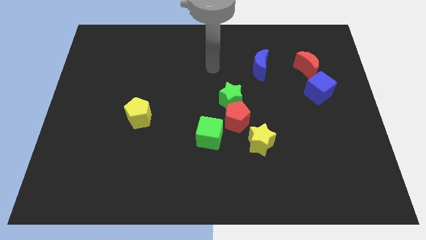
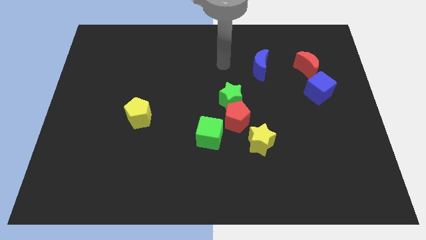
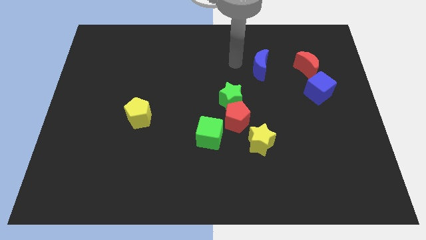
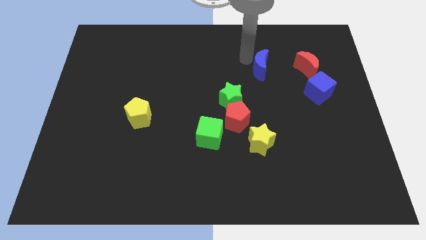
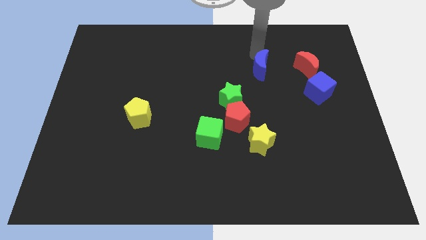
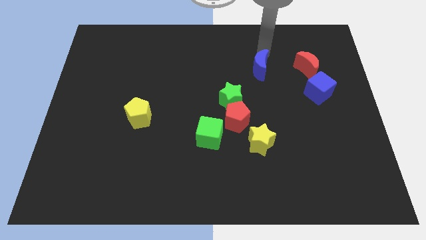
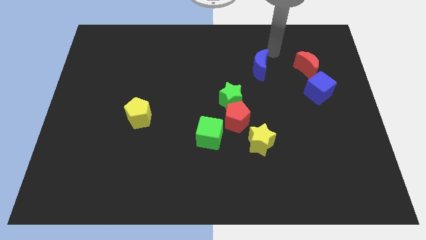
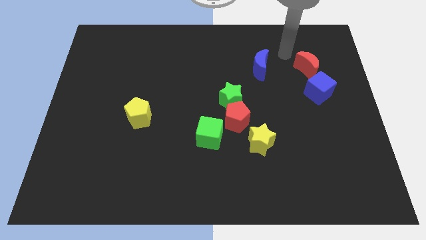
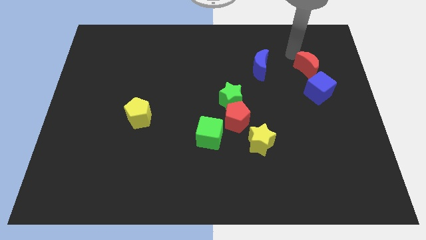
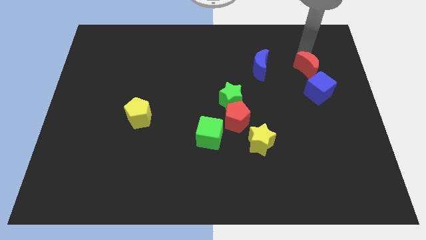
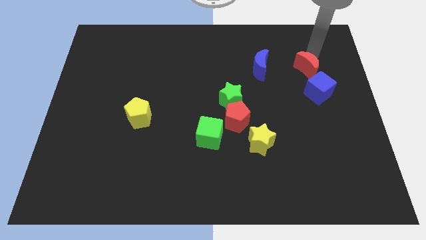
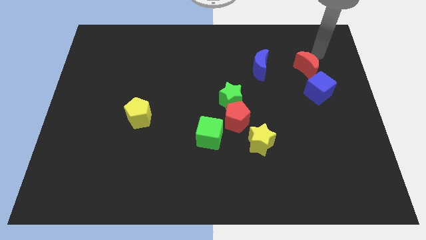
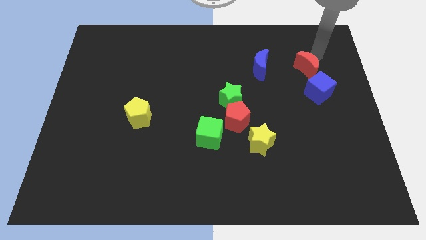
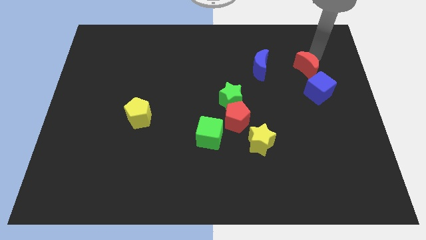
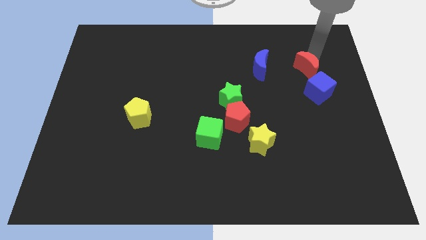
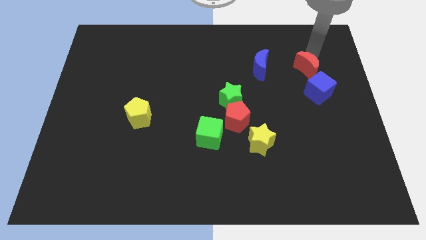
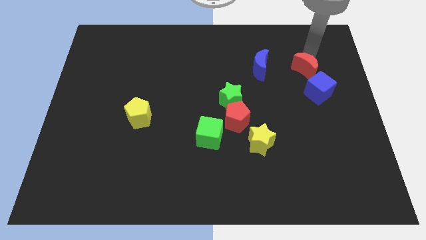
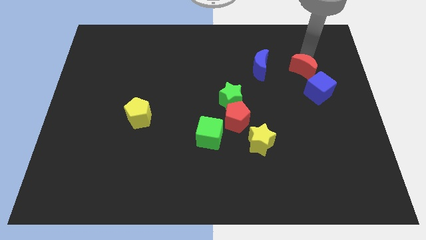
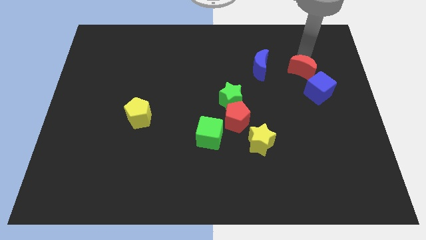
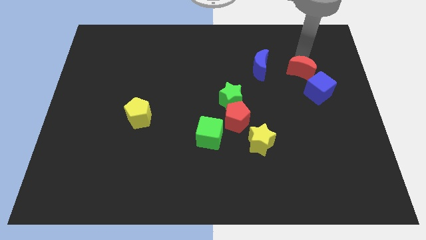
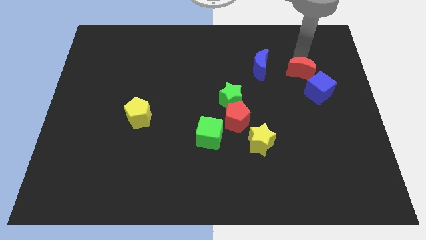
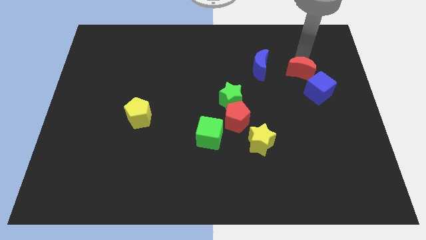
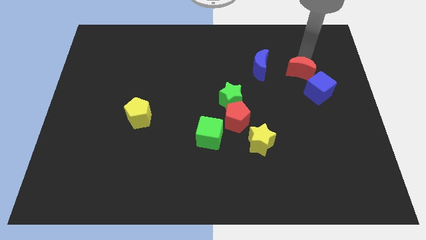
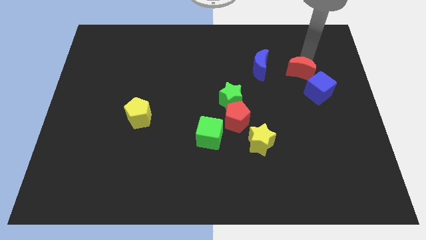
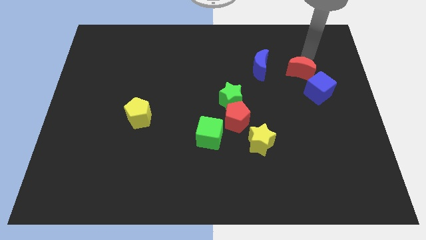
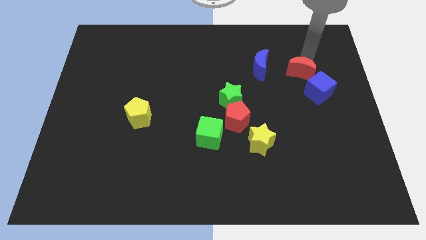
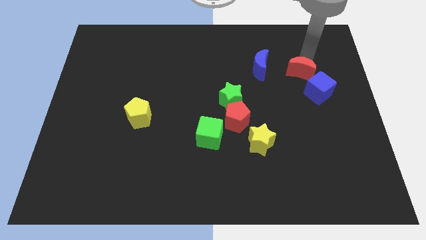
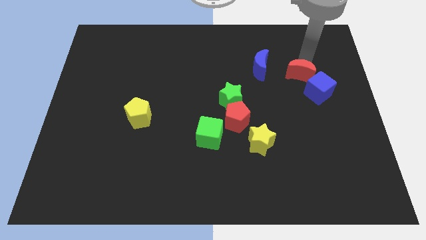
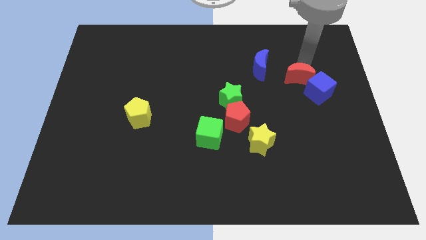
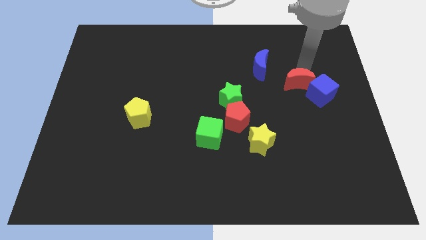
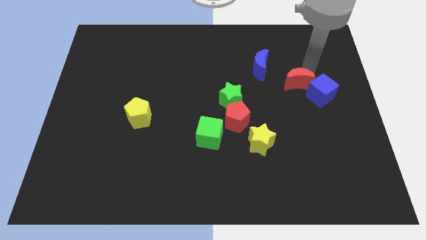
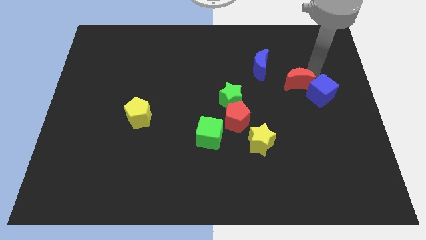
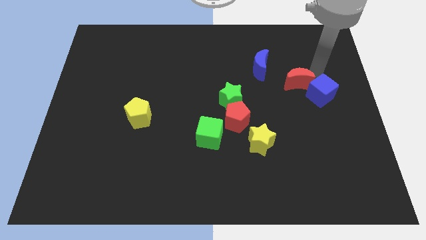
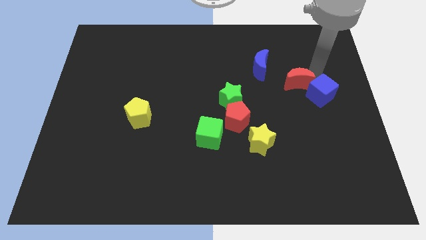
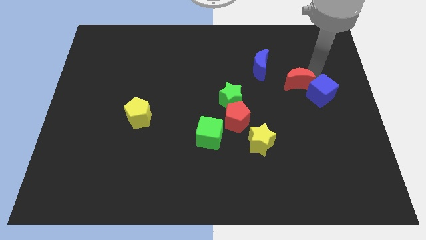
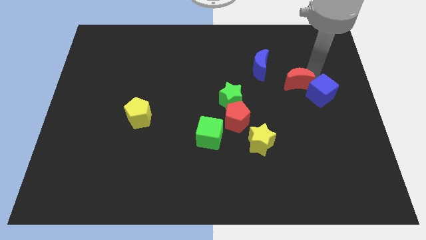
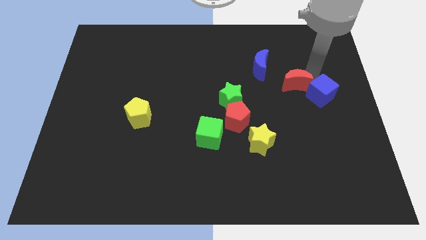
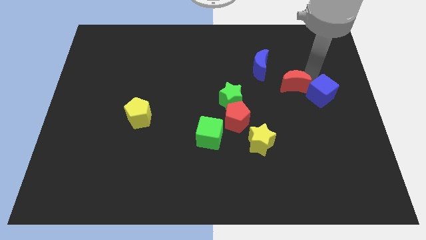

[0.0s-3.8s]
move the red moon down and to the left diagonally somewhat

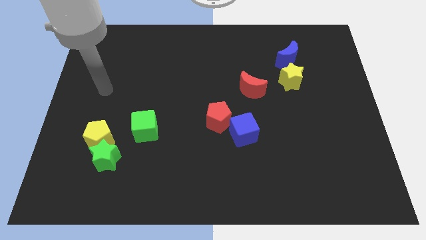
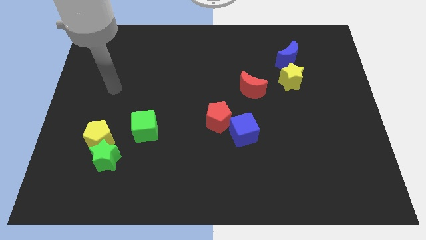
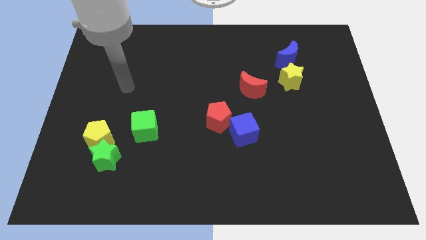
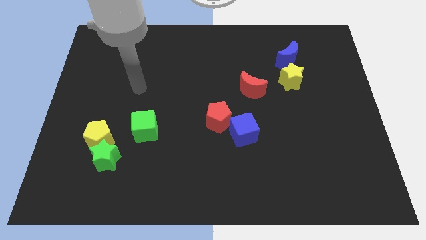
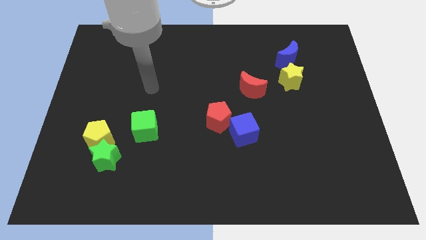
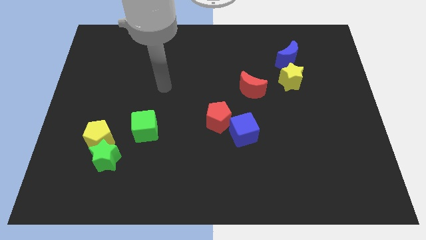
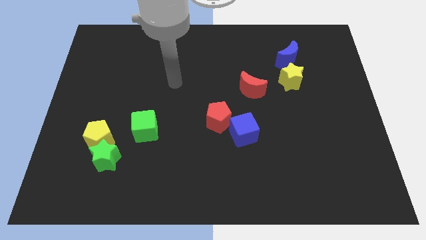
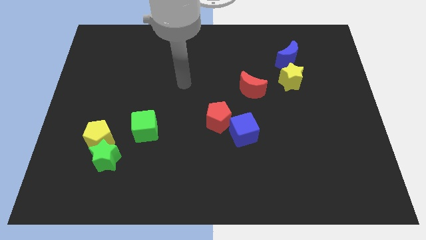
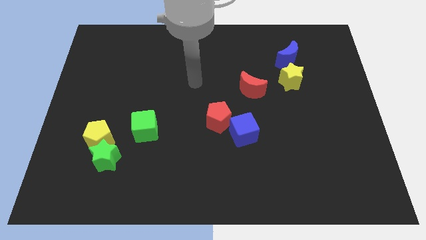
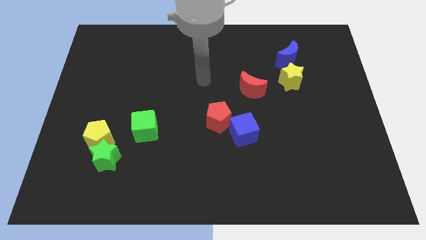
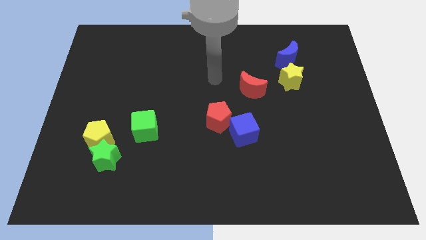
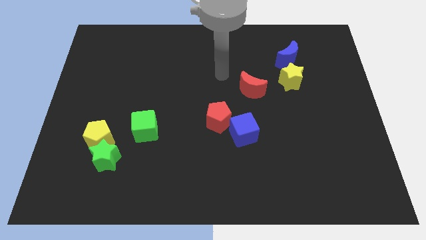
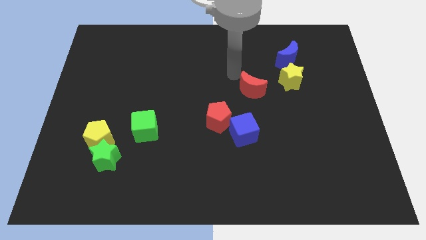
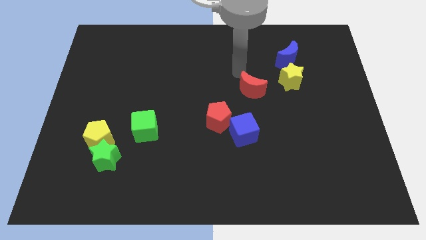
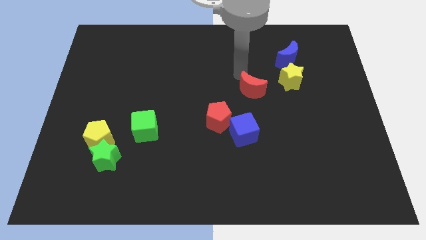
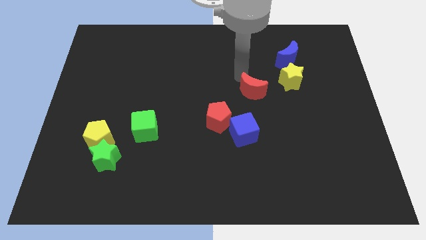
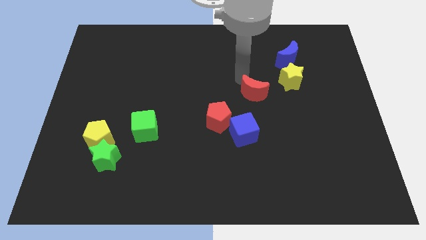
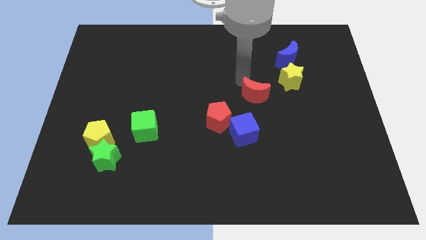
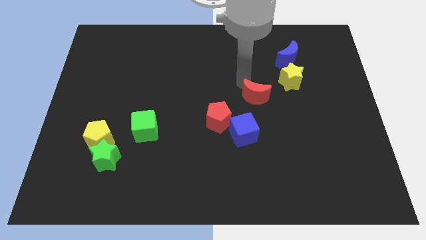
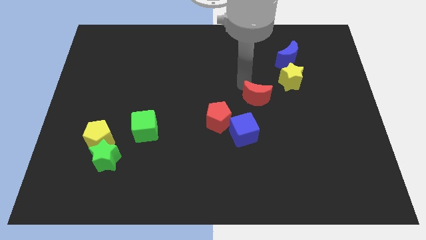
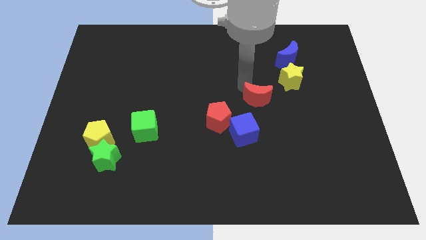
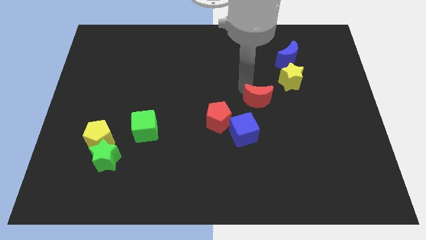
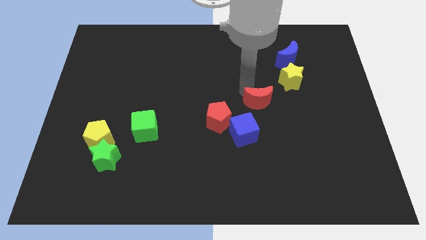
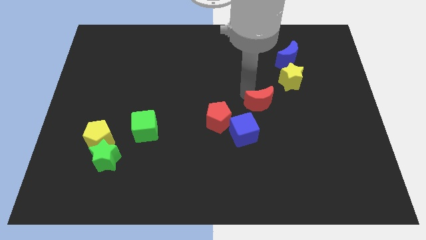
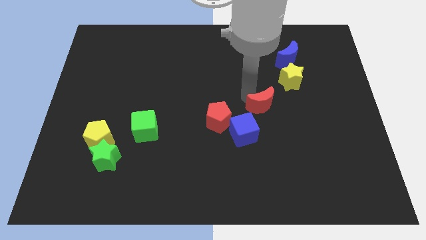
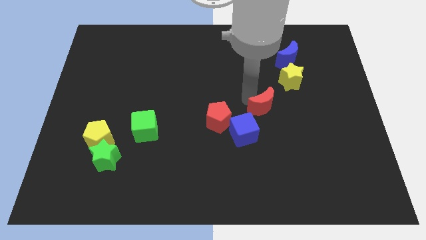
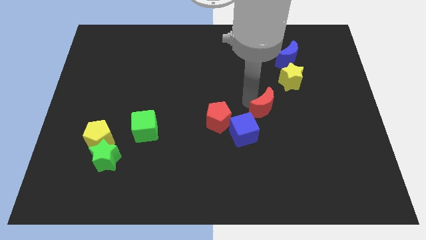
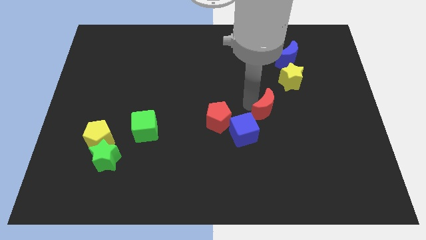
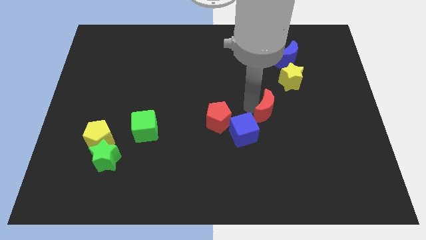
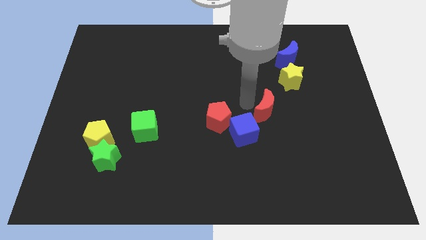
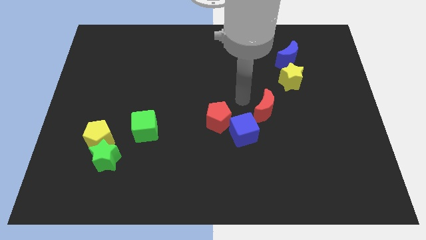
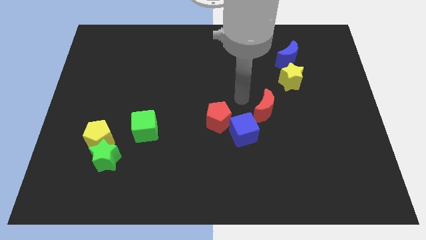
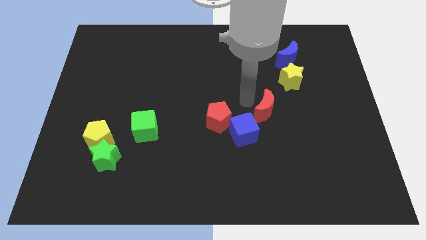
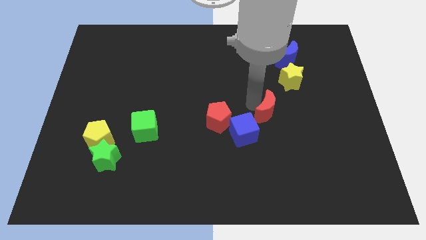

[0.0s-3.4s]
slightly slide the red moon downwards and to the right diagonally

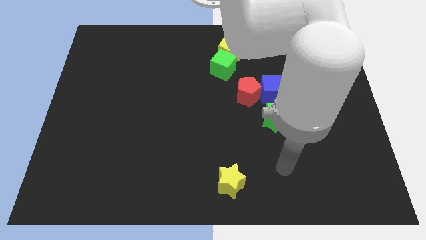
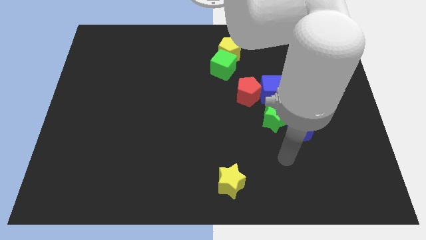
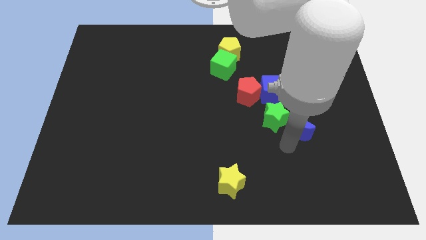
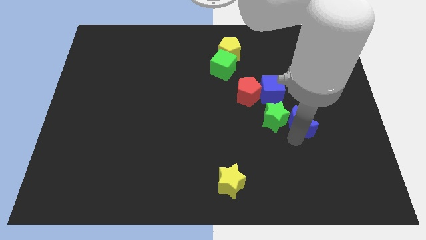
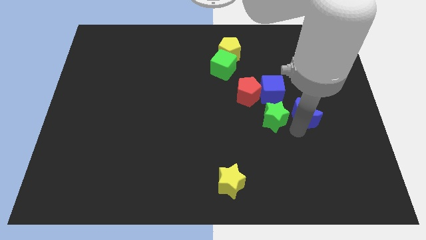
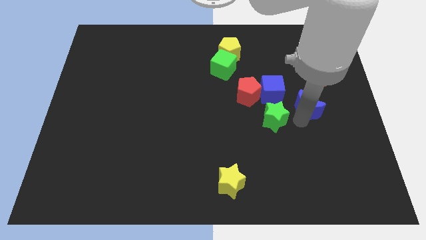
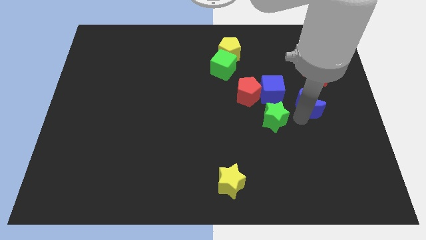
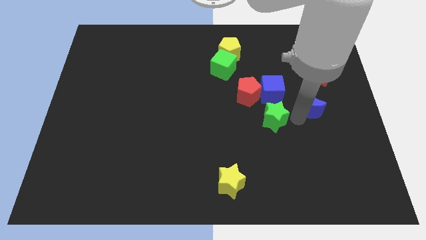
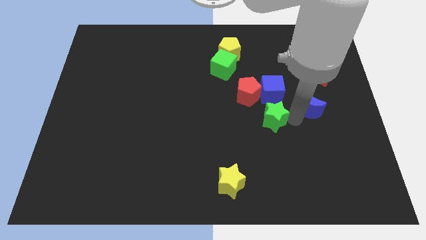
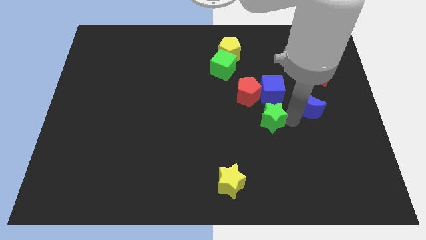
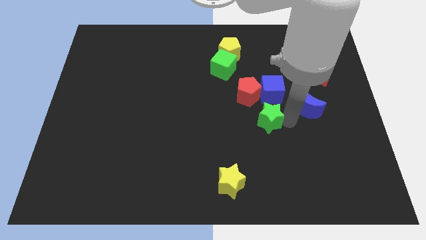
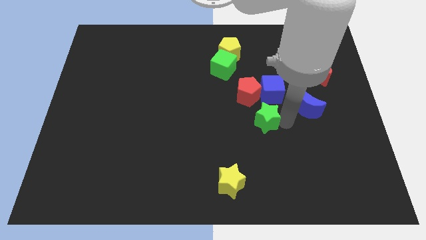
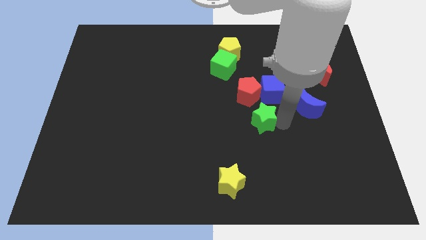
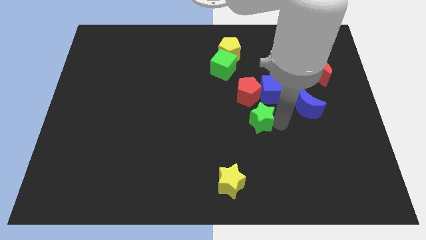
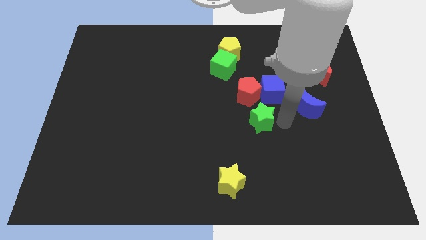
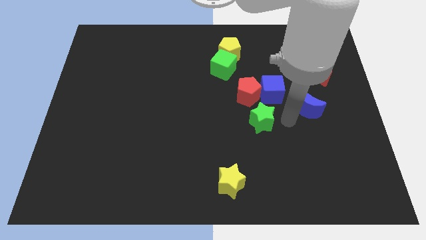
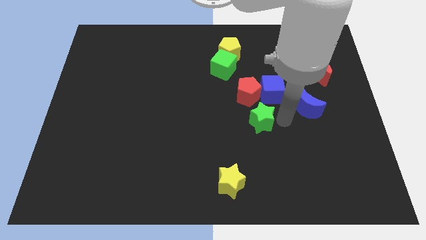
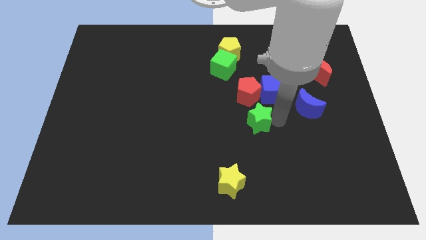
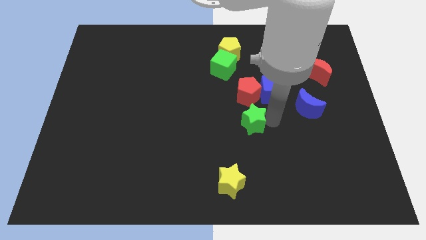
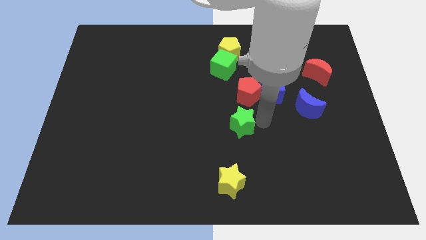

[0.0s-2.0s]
slide the green star left a little
